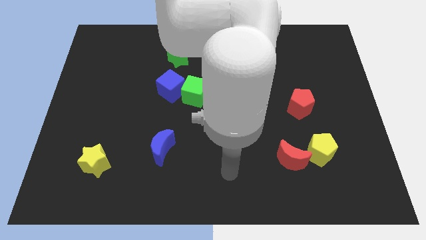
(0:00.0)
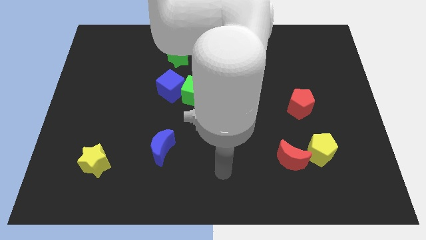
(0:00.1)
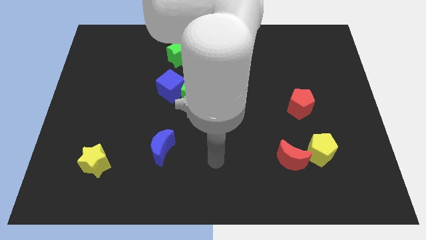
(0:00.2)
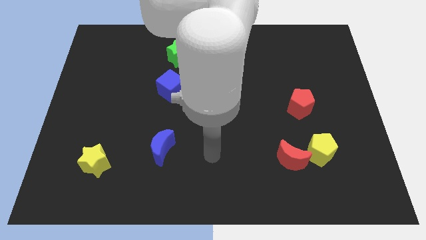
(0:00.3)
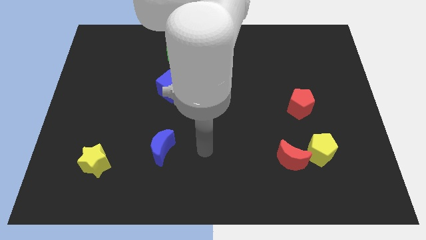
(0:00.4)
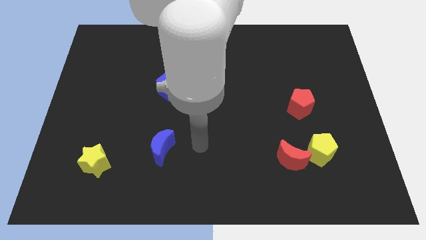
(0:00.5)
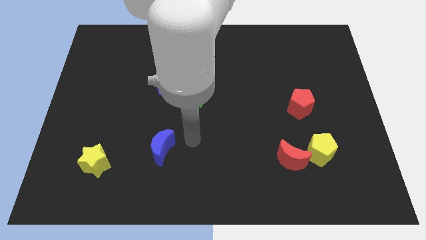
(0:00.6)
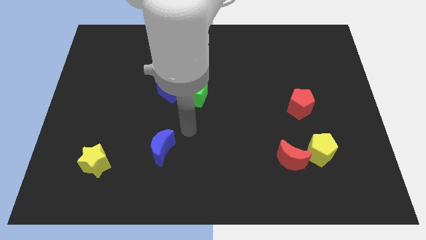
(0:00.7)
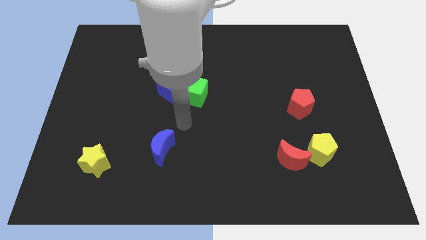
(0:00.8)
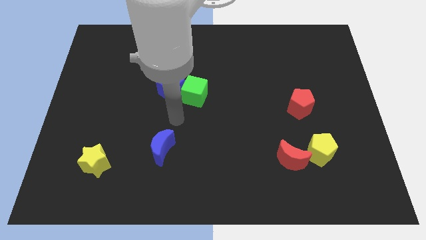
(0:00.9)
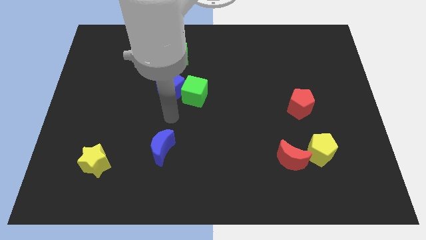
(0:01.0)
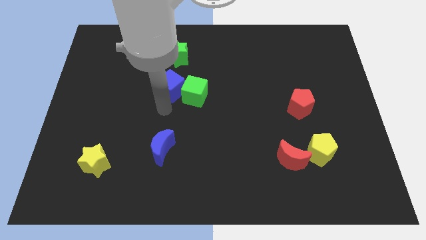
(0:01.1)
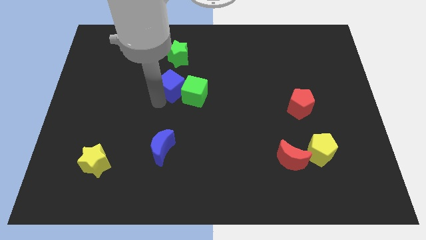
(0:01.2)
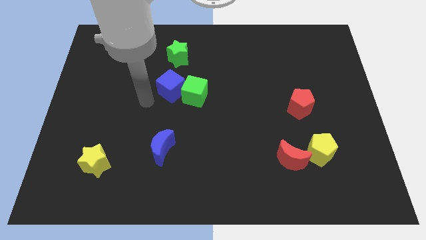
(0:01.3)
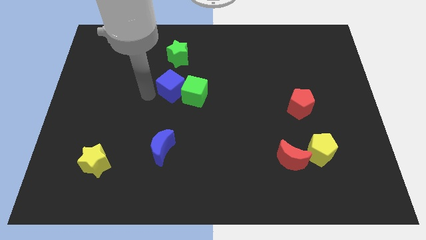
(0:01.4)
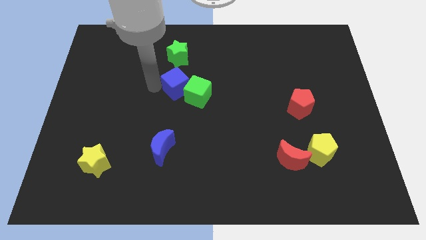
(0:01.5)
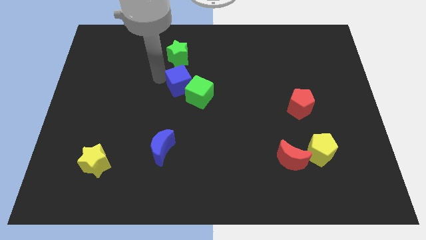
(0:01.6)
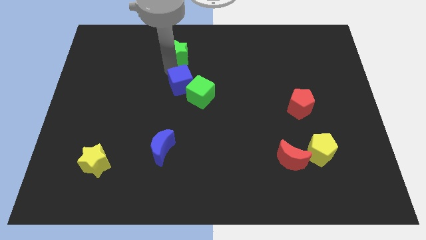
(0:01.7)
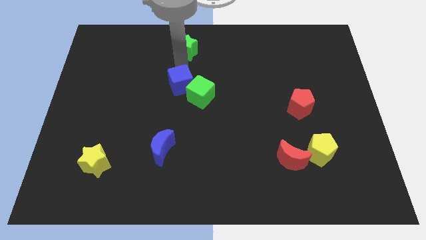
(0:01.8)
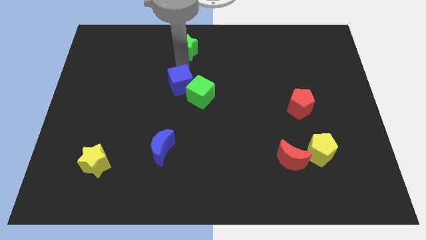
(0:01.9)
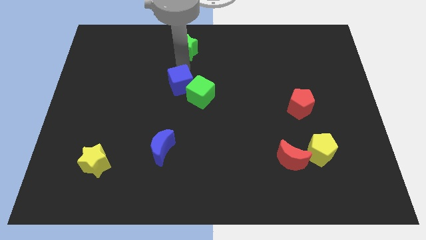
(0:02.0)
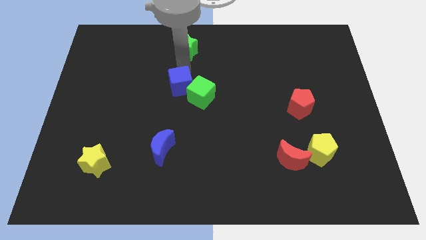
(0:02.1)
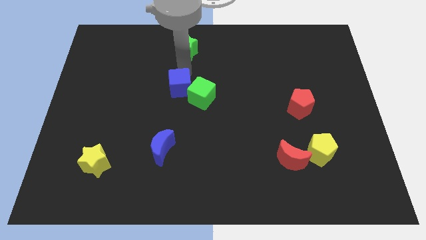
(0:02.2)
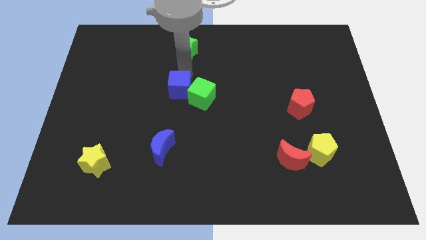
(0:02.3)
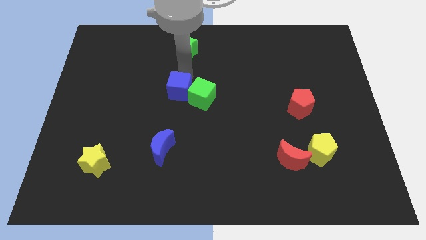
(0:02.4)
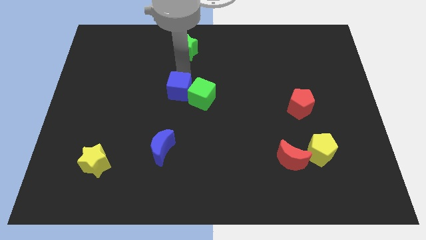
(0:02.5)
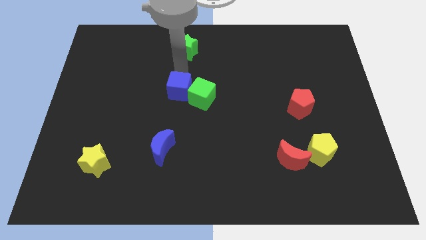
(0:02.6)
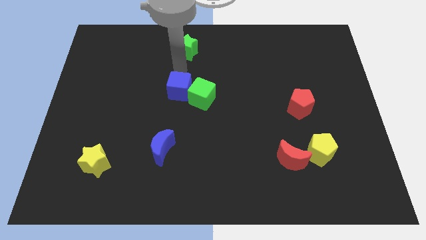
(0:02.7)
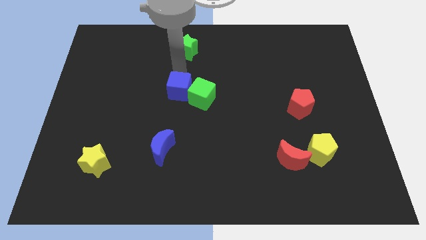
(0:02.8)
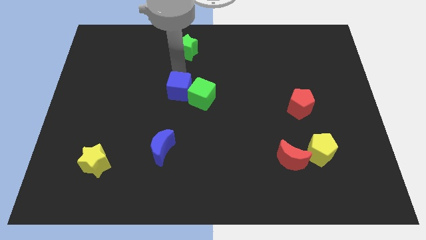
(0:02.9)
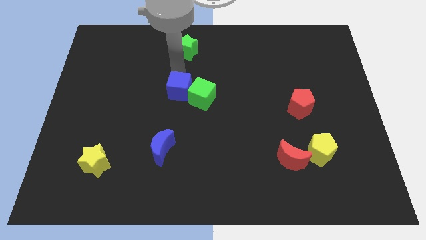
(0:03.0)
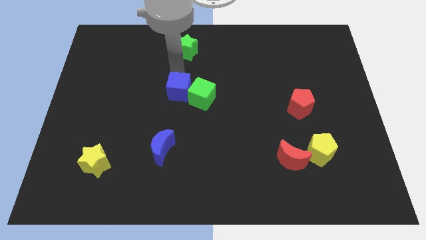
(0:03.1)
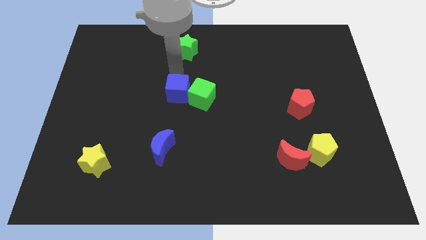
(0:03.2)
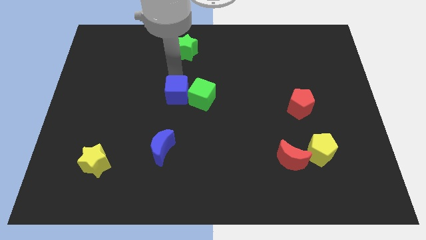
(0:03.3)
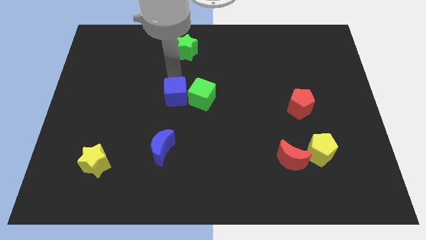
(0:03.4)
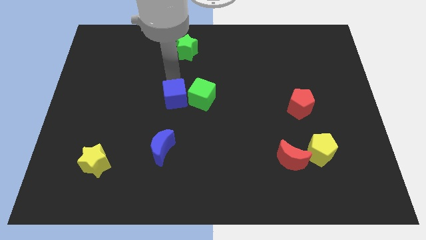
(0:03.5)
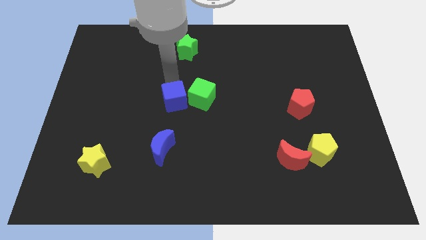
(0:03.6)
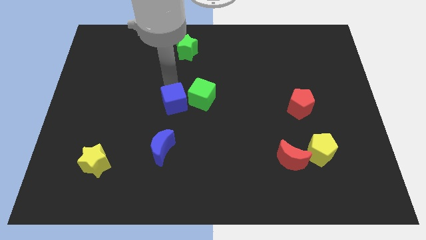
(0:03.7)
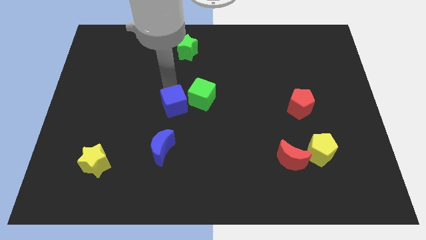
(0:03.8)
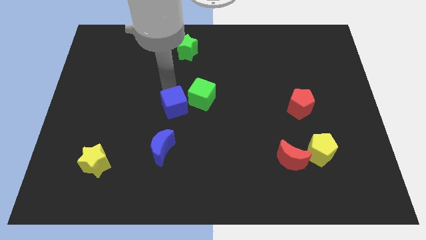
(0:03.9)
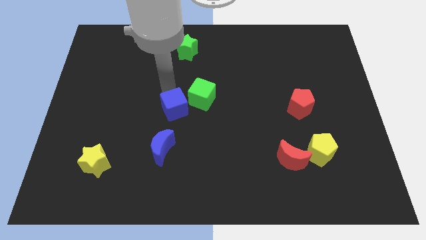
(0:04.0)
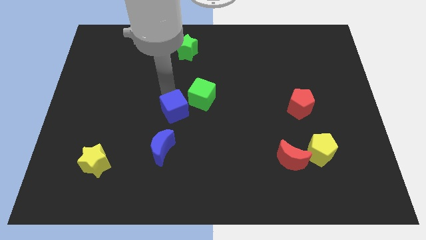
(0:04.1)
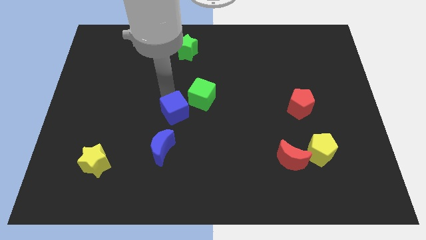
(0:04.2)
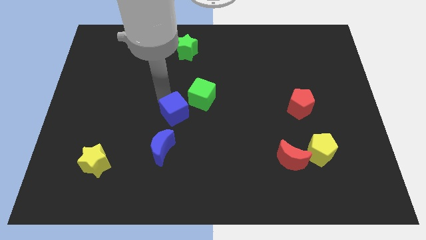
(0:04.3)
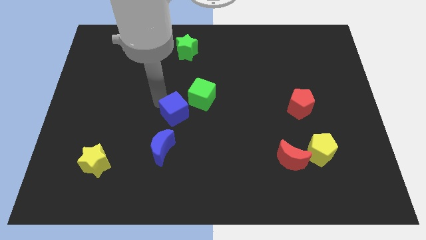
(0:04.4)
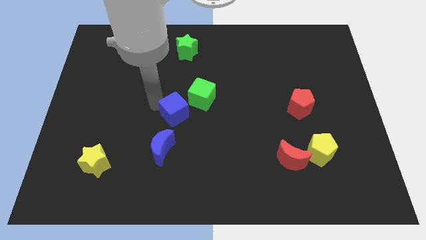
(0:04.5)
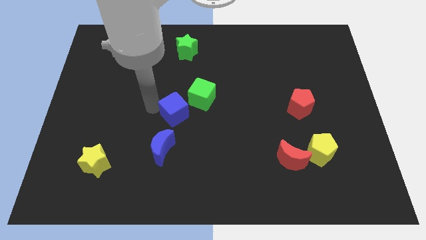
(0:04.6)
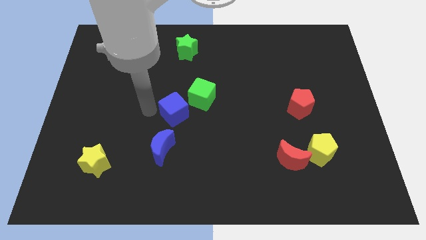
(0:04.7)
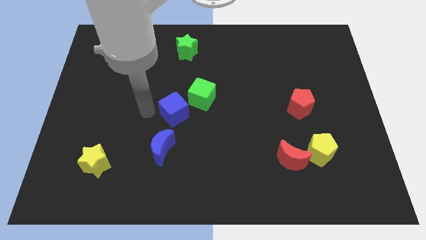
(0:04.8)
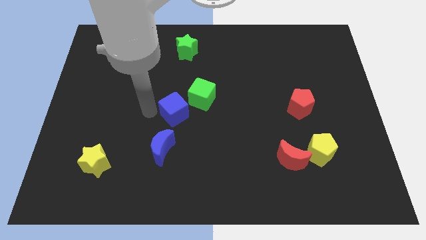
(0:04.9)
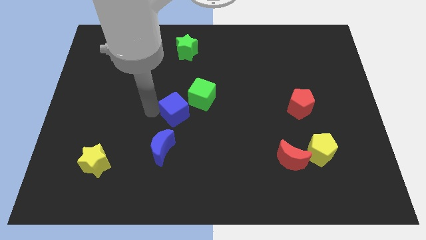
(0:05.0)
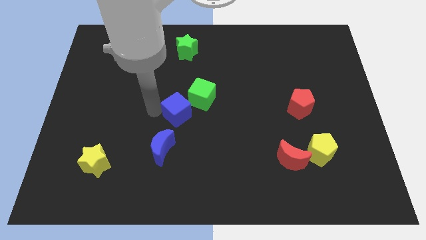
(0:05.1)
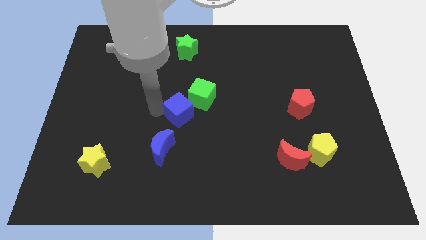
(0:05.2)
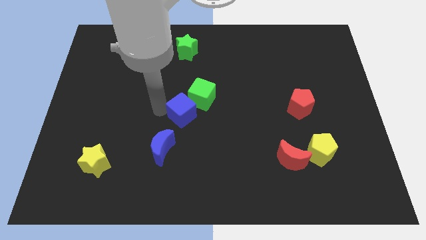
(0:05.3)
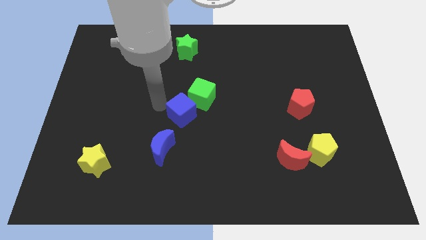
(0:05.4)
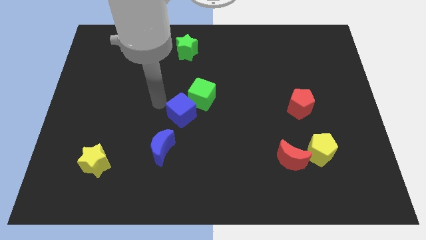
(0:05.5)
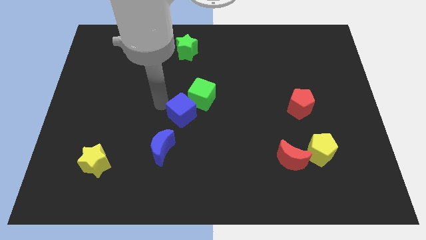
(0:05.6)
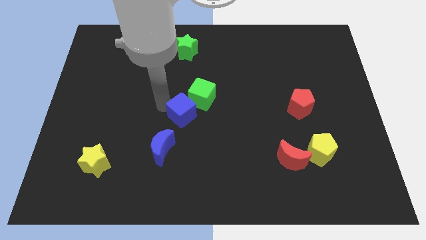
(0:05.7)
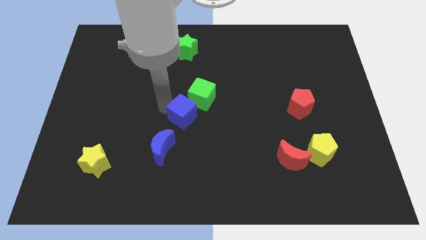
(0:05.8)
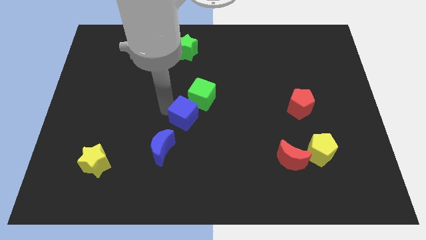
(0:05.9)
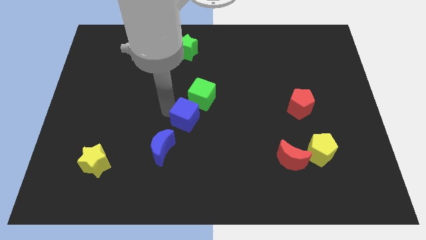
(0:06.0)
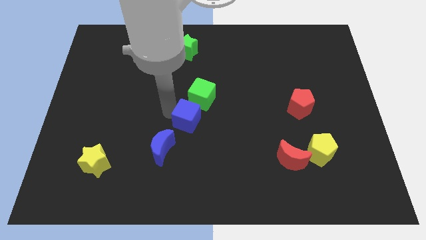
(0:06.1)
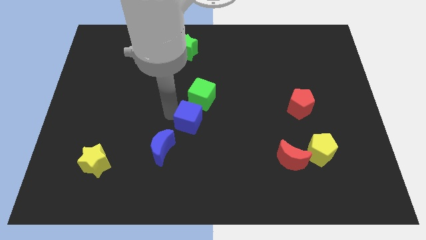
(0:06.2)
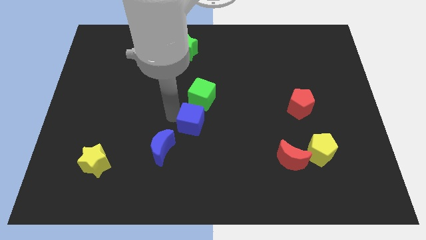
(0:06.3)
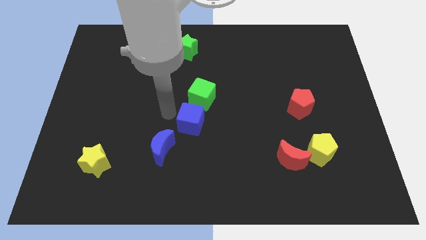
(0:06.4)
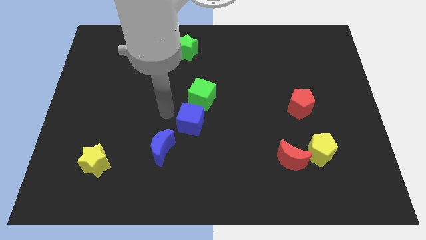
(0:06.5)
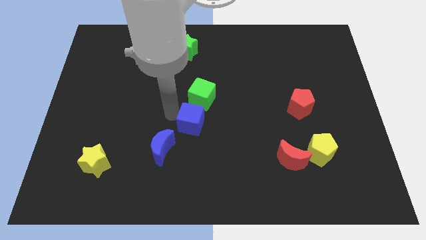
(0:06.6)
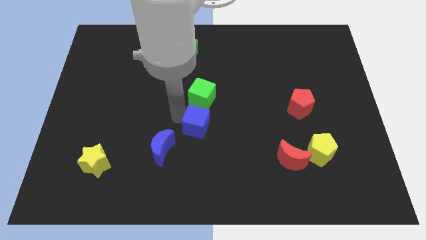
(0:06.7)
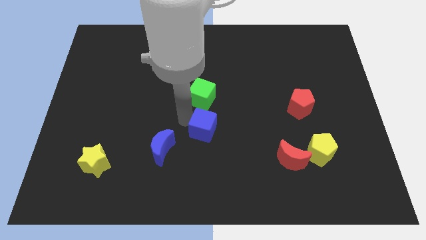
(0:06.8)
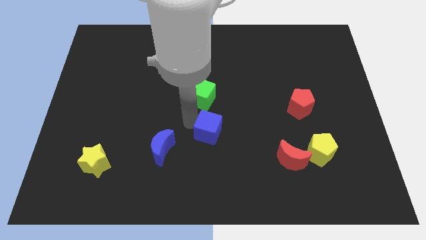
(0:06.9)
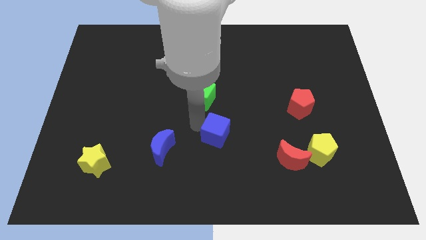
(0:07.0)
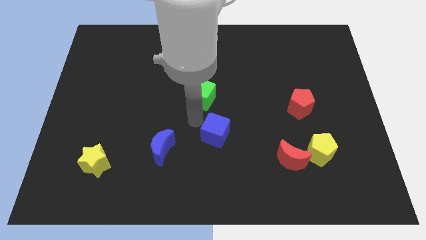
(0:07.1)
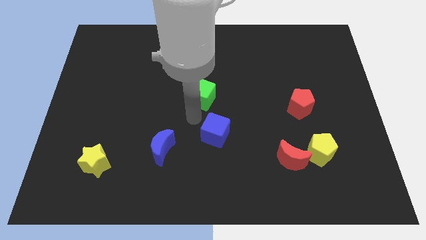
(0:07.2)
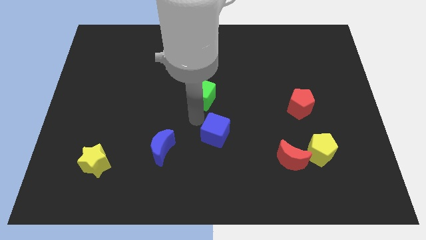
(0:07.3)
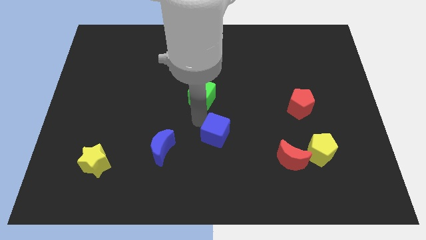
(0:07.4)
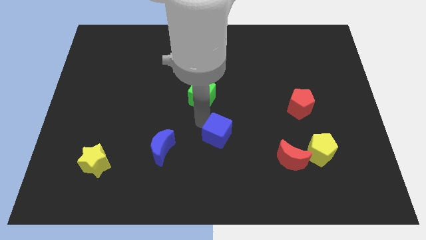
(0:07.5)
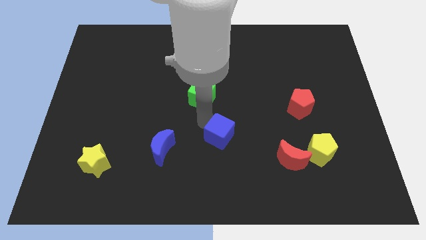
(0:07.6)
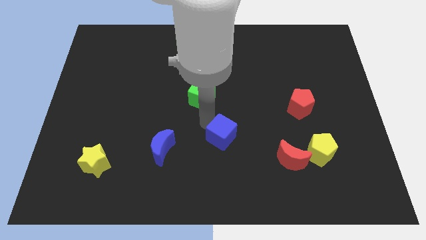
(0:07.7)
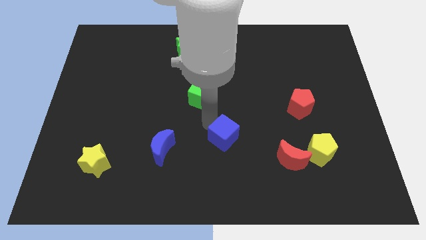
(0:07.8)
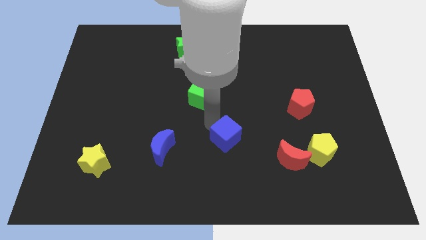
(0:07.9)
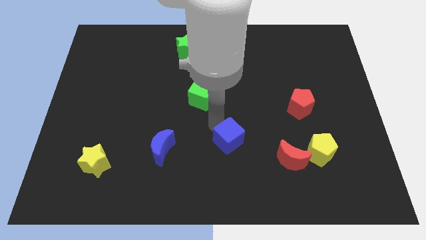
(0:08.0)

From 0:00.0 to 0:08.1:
push the blue cube down and right
